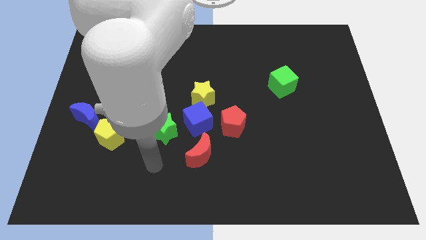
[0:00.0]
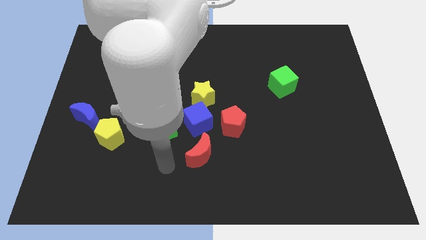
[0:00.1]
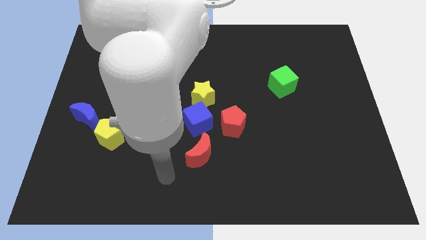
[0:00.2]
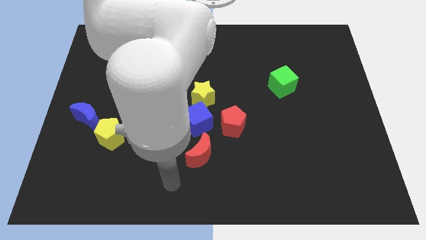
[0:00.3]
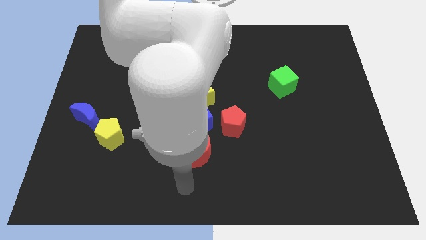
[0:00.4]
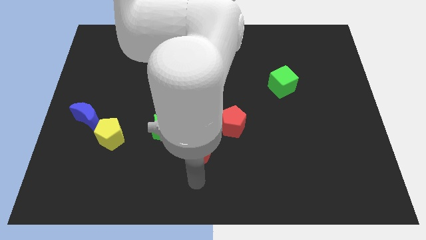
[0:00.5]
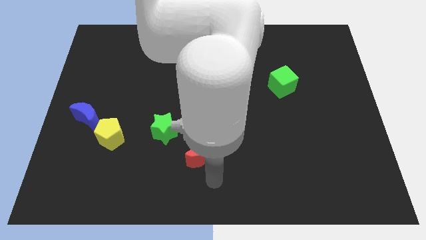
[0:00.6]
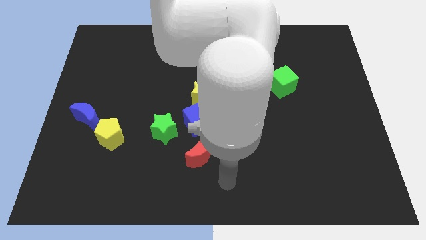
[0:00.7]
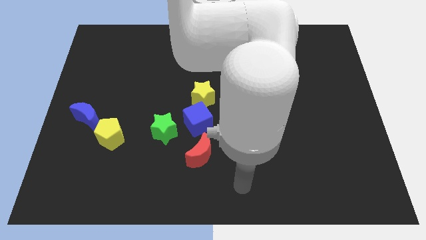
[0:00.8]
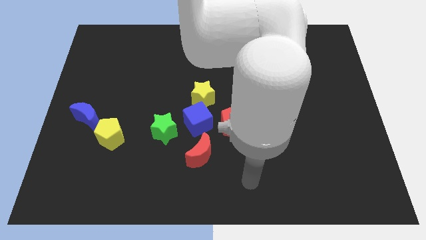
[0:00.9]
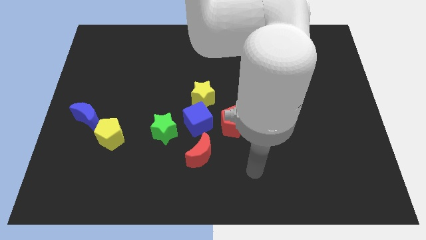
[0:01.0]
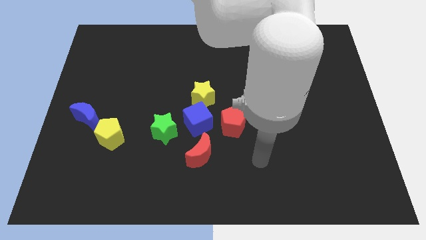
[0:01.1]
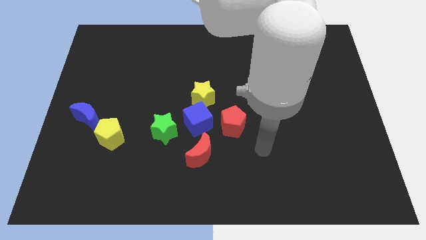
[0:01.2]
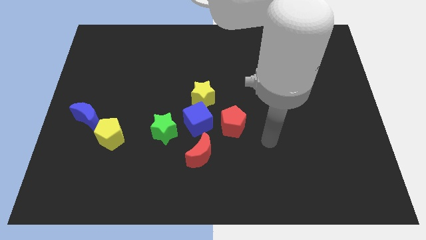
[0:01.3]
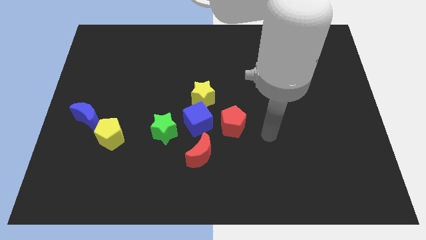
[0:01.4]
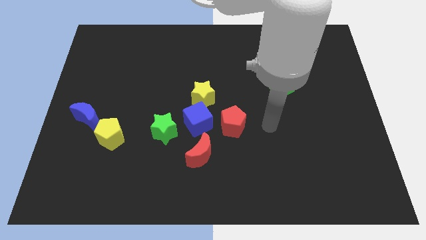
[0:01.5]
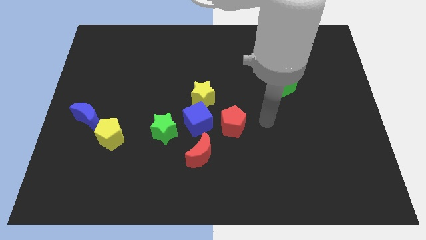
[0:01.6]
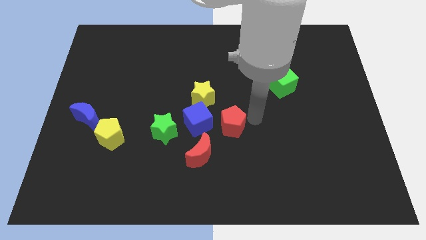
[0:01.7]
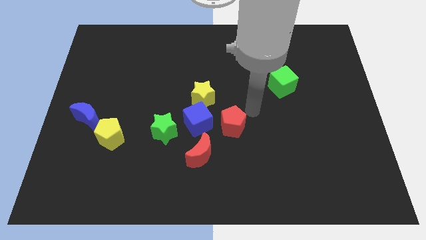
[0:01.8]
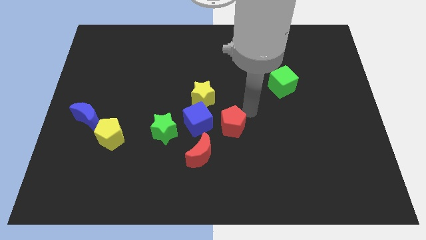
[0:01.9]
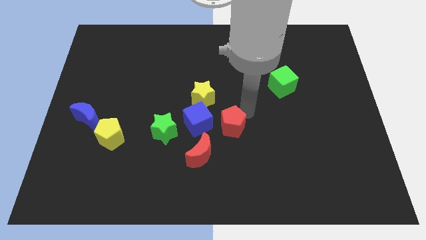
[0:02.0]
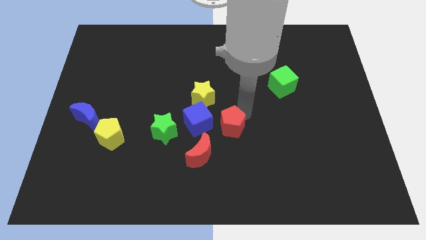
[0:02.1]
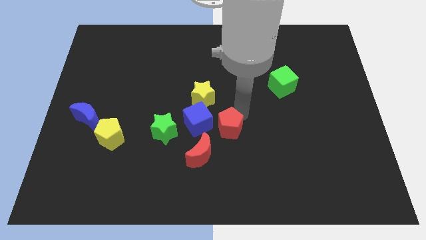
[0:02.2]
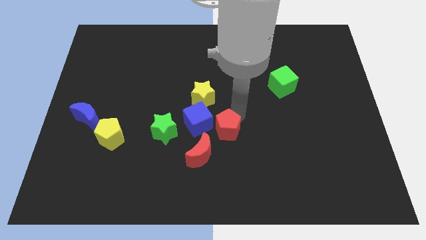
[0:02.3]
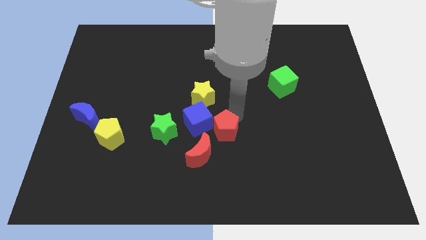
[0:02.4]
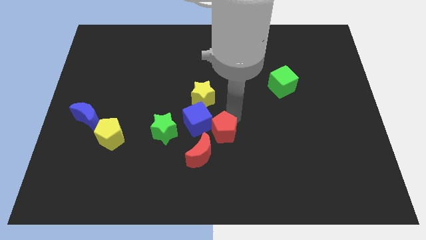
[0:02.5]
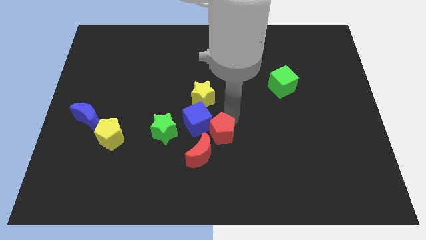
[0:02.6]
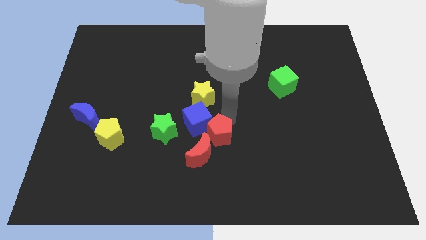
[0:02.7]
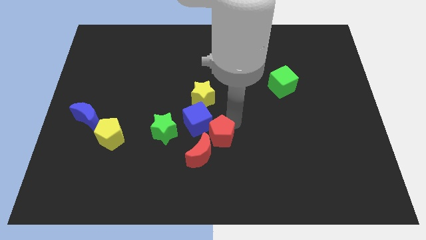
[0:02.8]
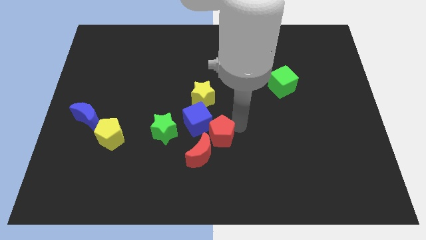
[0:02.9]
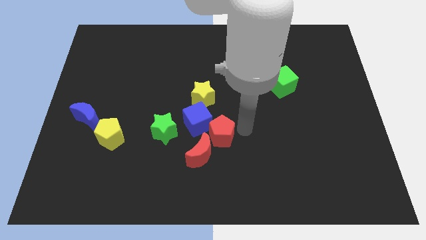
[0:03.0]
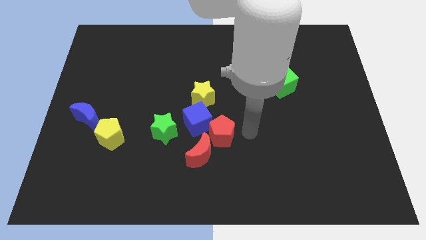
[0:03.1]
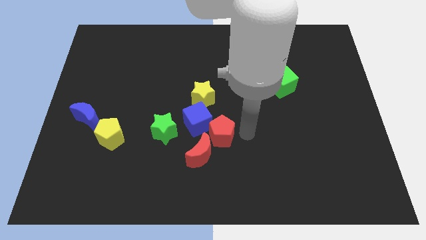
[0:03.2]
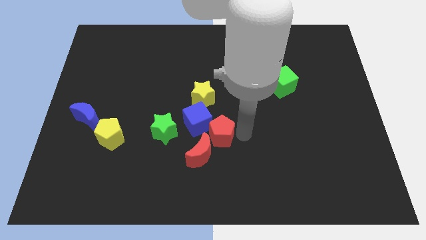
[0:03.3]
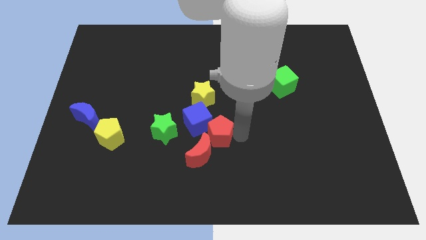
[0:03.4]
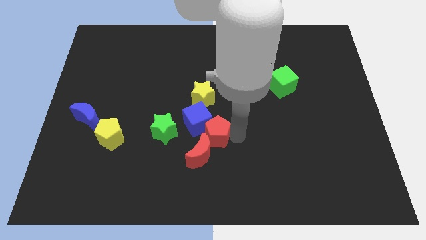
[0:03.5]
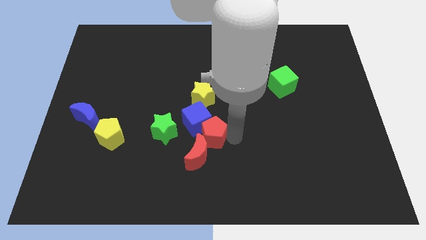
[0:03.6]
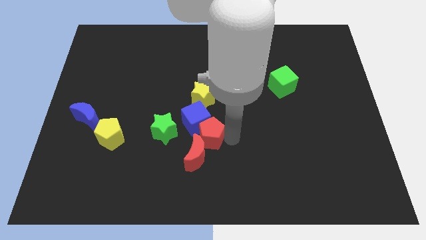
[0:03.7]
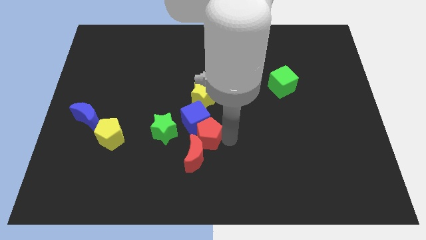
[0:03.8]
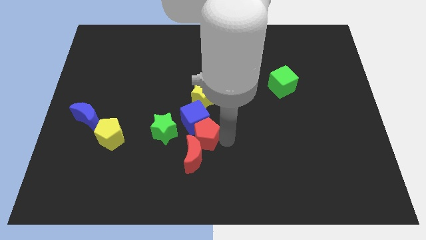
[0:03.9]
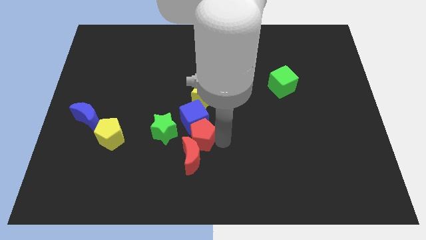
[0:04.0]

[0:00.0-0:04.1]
move the red pentagon somewhat diagonally down and to the left

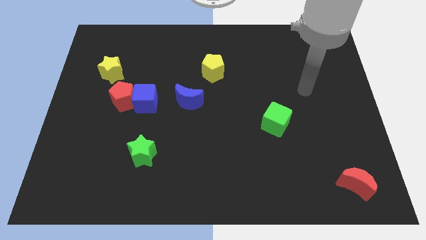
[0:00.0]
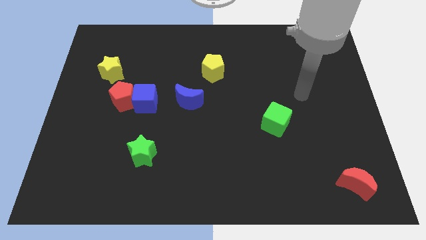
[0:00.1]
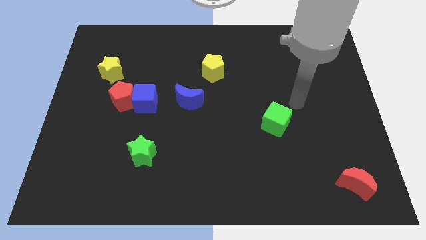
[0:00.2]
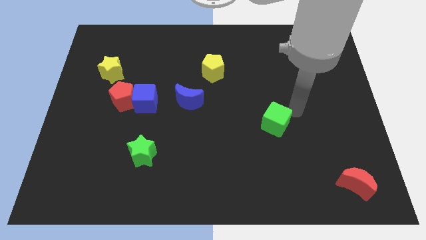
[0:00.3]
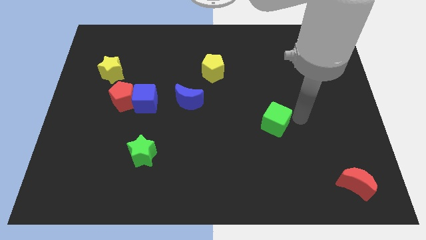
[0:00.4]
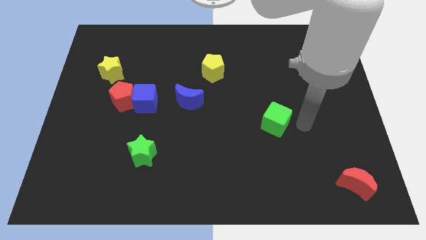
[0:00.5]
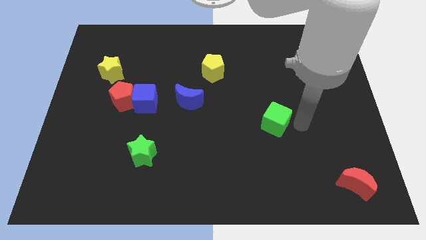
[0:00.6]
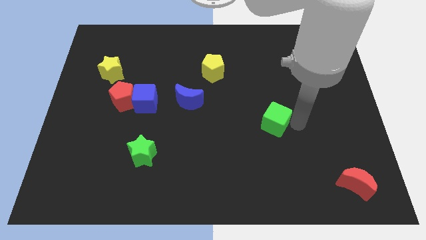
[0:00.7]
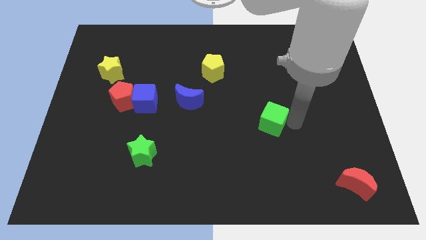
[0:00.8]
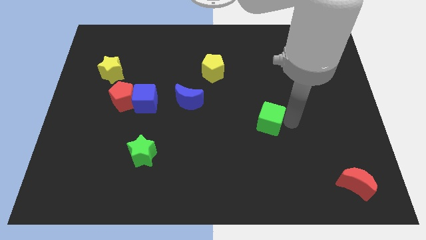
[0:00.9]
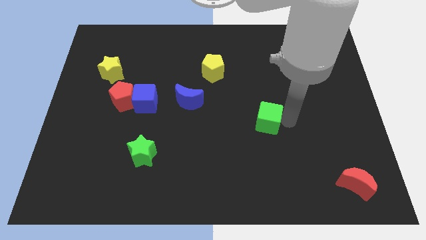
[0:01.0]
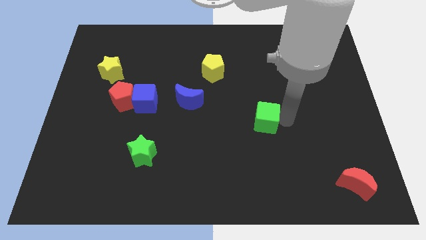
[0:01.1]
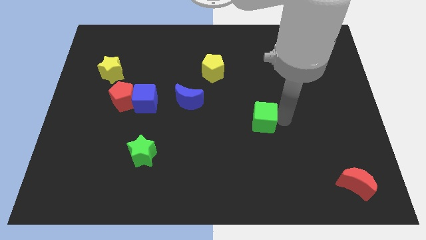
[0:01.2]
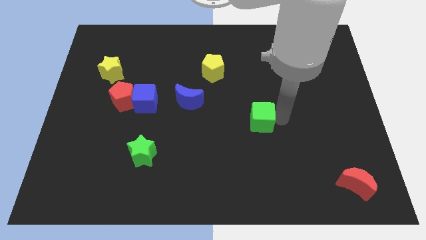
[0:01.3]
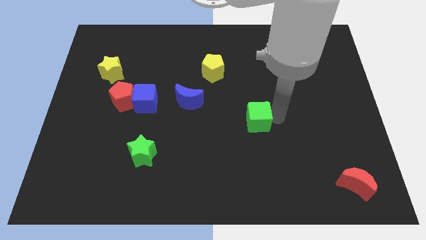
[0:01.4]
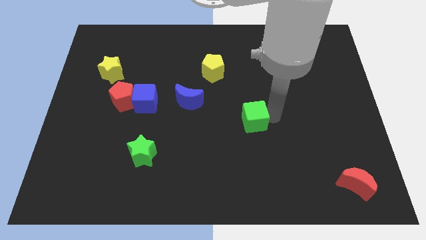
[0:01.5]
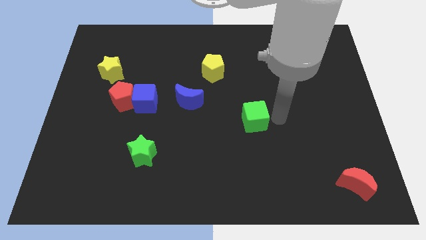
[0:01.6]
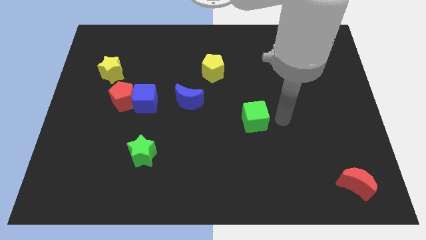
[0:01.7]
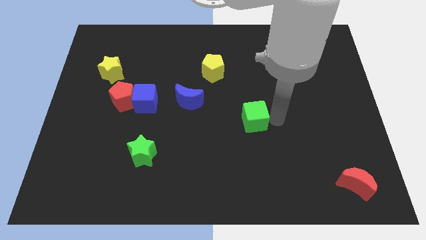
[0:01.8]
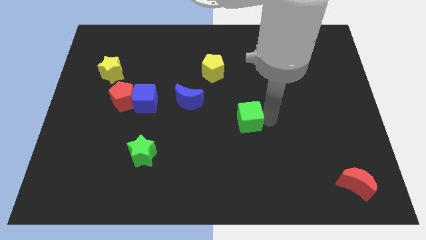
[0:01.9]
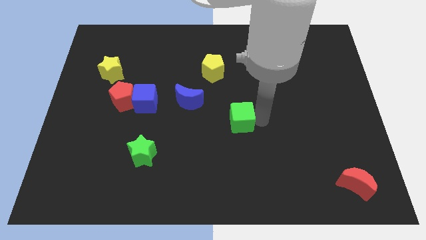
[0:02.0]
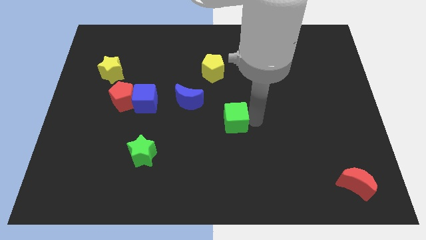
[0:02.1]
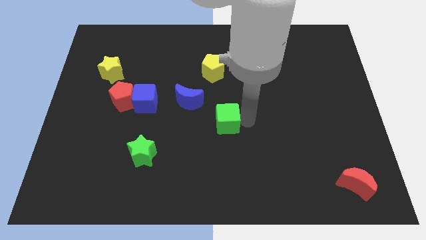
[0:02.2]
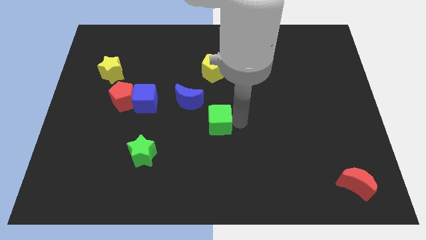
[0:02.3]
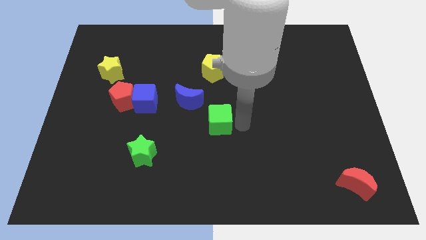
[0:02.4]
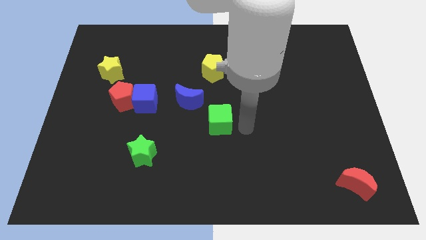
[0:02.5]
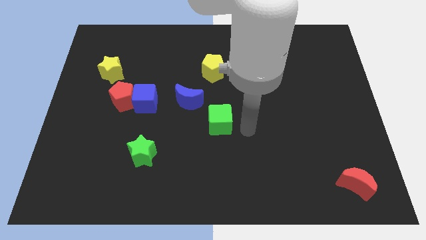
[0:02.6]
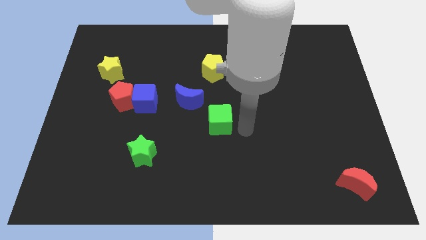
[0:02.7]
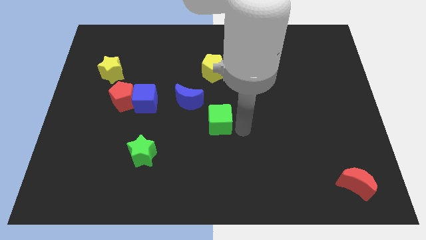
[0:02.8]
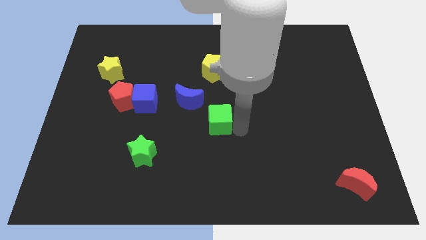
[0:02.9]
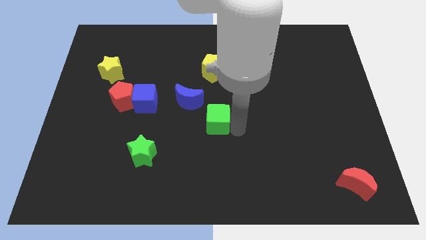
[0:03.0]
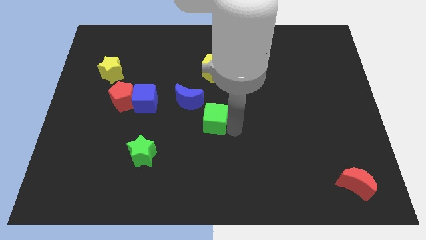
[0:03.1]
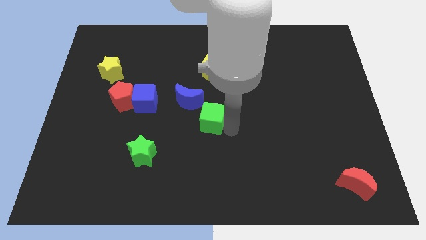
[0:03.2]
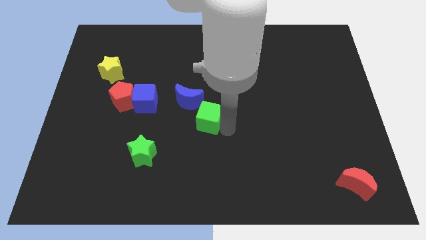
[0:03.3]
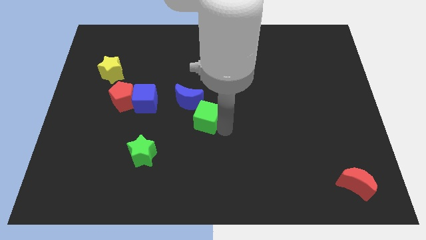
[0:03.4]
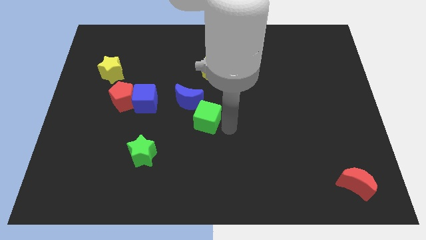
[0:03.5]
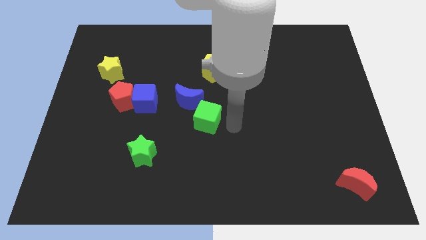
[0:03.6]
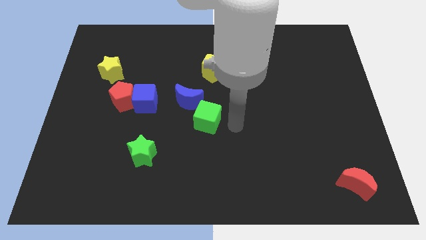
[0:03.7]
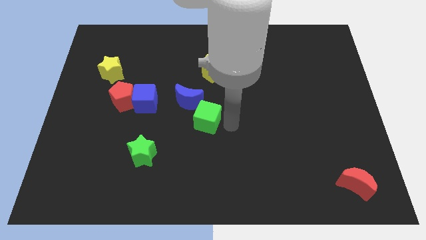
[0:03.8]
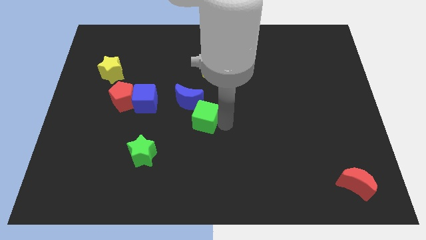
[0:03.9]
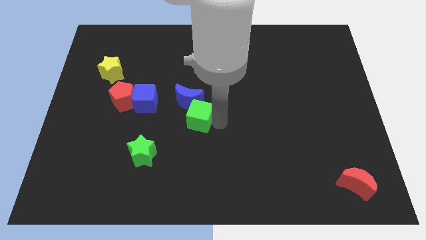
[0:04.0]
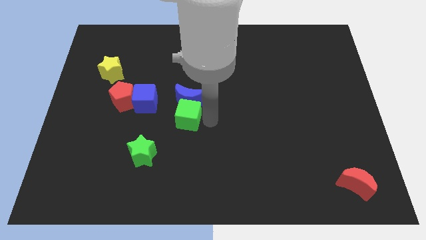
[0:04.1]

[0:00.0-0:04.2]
move the green cube left

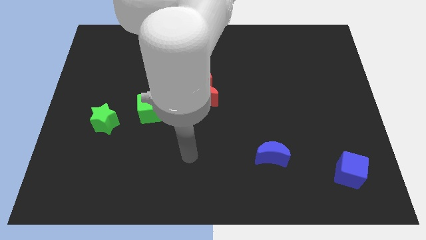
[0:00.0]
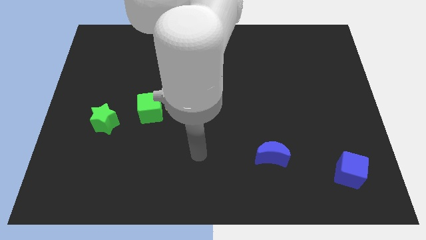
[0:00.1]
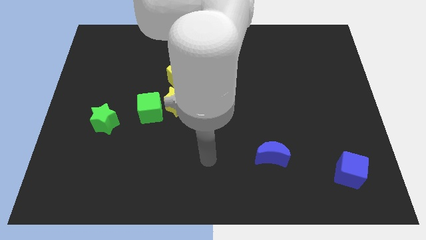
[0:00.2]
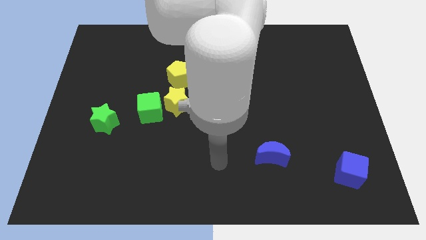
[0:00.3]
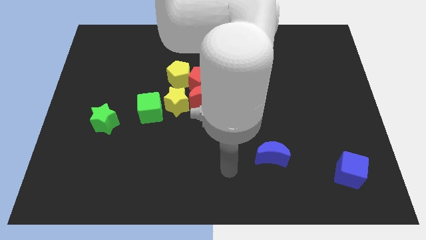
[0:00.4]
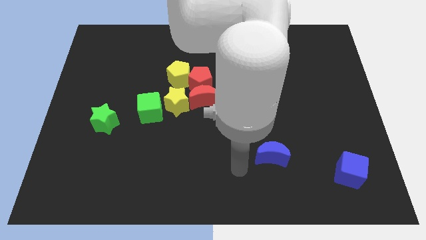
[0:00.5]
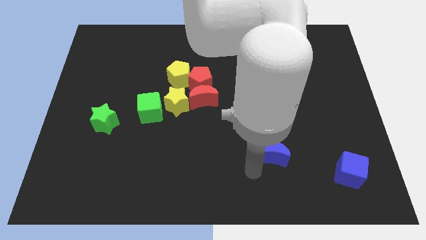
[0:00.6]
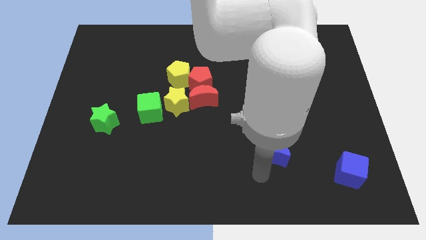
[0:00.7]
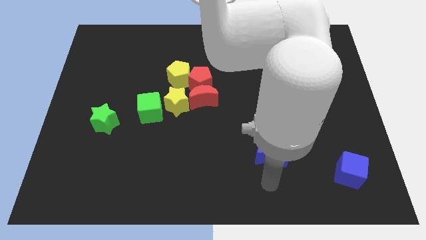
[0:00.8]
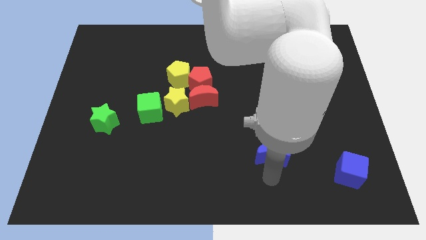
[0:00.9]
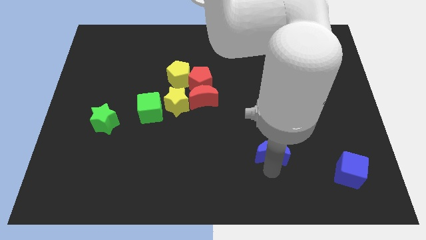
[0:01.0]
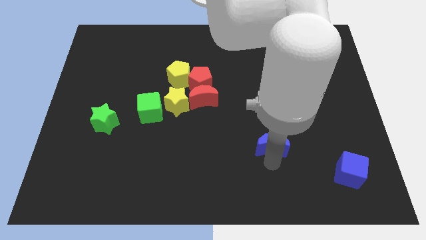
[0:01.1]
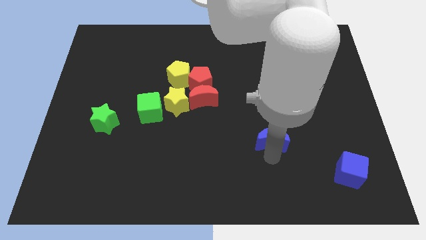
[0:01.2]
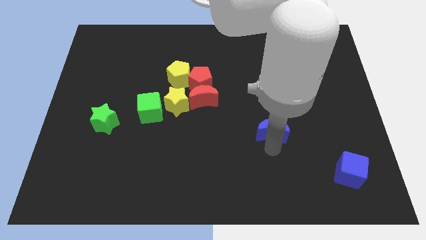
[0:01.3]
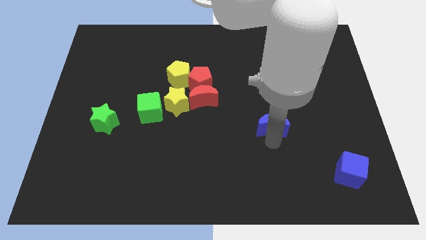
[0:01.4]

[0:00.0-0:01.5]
slightly slide the blue moon up
